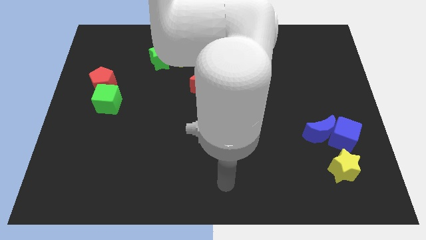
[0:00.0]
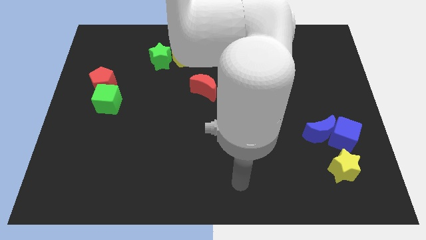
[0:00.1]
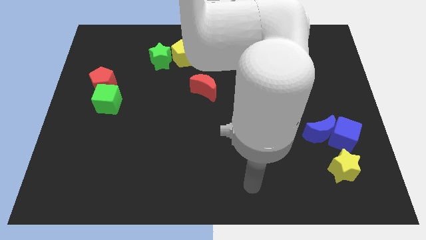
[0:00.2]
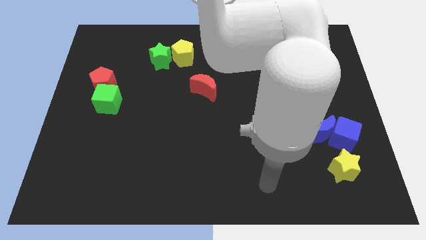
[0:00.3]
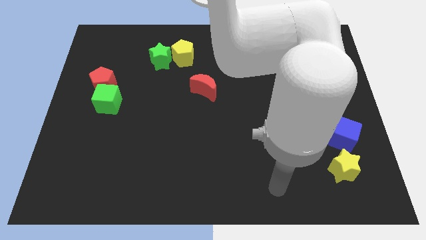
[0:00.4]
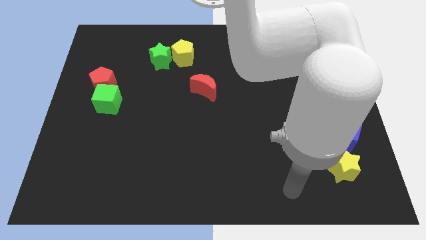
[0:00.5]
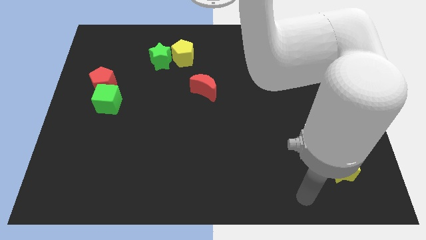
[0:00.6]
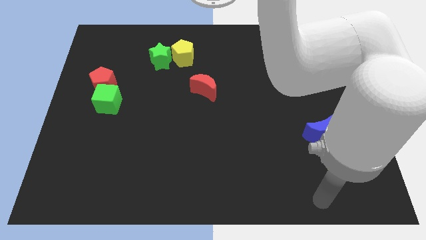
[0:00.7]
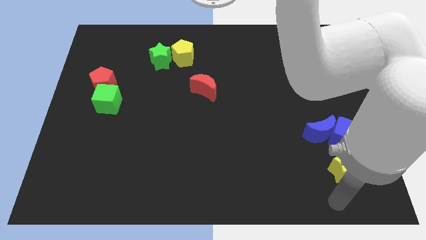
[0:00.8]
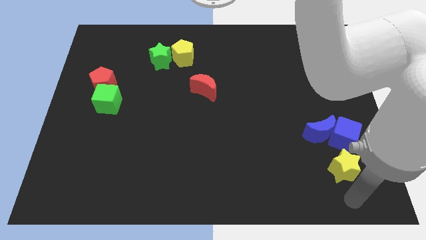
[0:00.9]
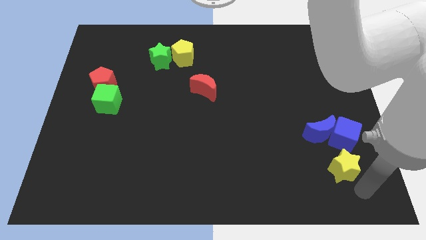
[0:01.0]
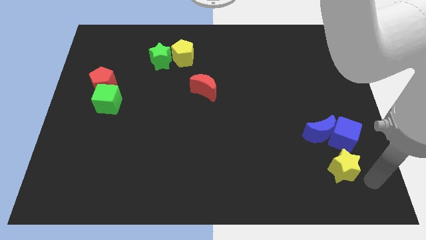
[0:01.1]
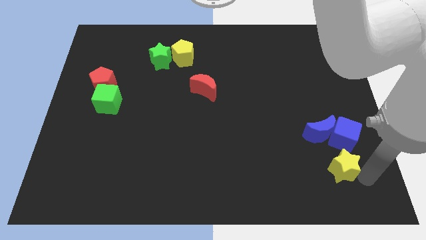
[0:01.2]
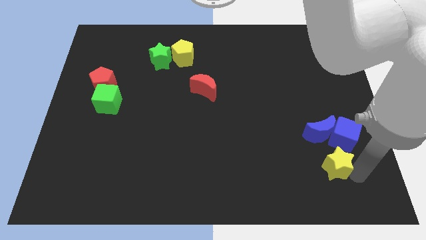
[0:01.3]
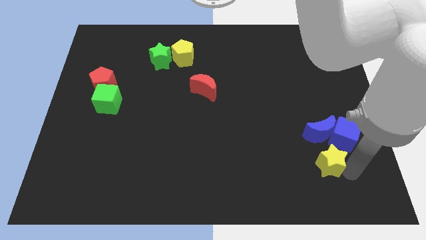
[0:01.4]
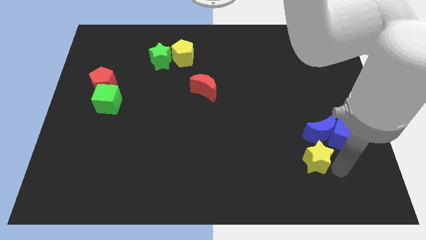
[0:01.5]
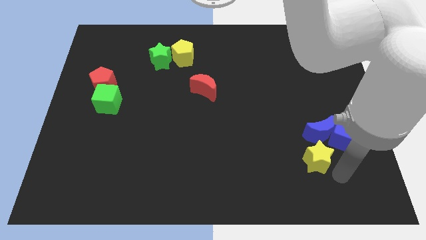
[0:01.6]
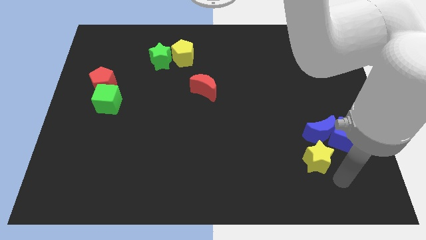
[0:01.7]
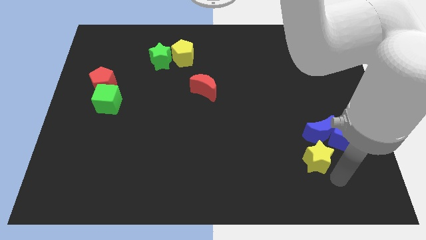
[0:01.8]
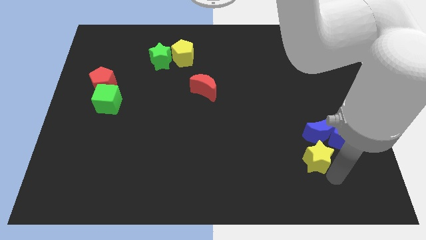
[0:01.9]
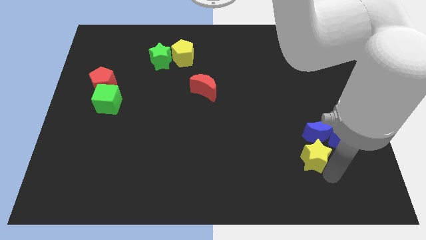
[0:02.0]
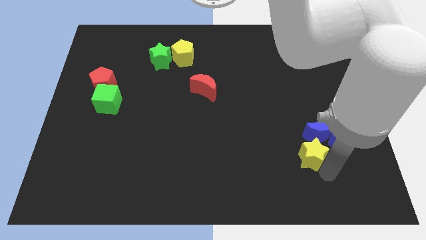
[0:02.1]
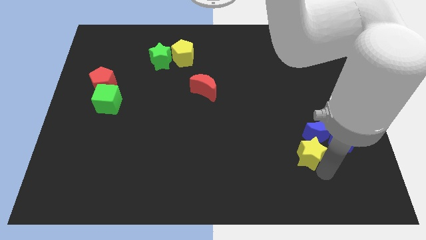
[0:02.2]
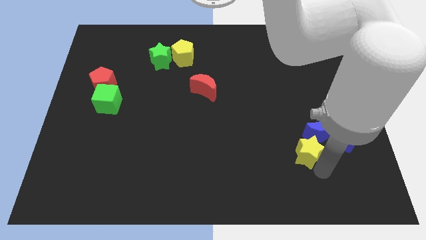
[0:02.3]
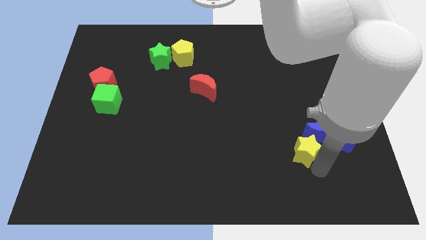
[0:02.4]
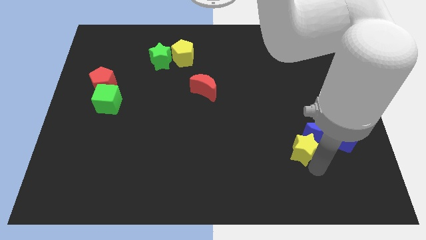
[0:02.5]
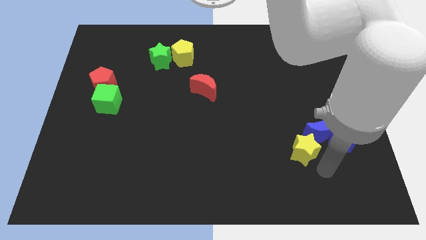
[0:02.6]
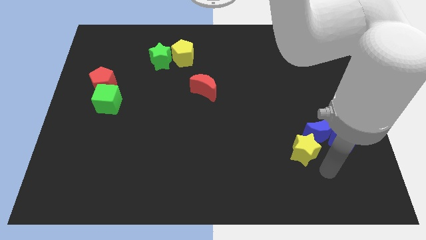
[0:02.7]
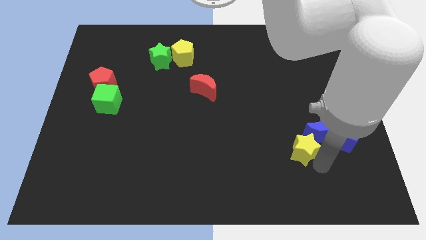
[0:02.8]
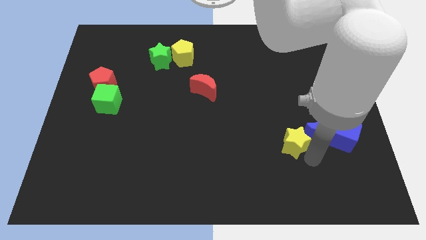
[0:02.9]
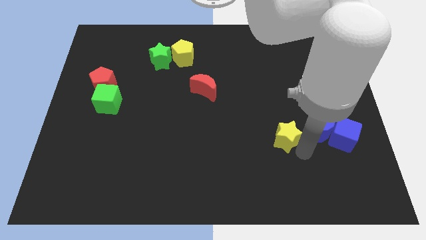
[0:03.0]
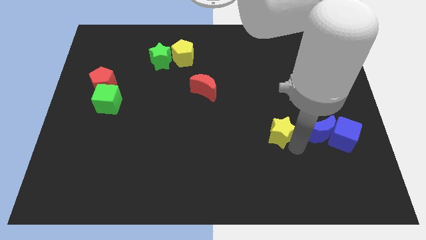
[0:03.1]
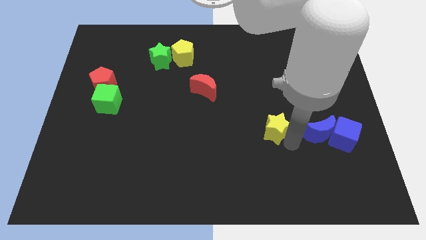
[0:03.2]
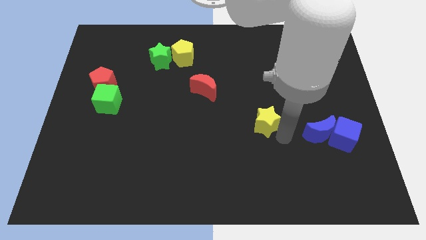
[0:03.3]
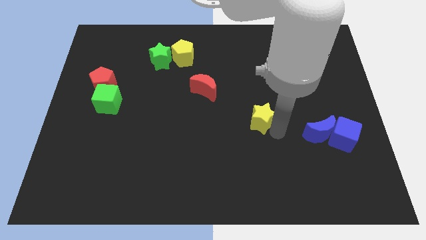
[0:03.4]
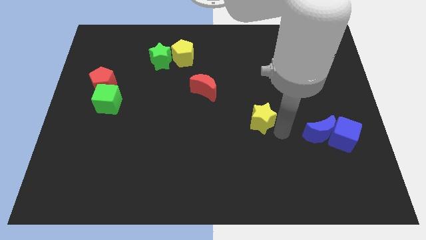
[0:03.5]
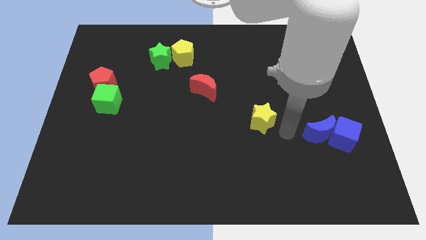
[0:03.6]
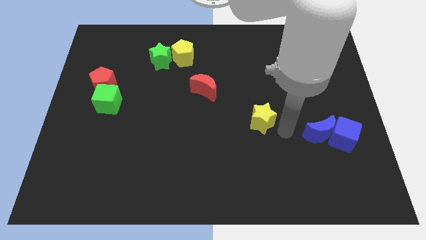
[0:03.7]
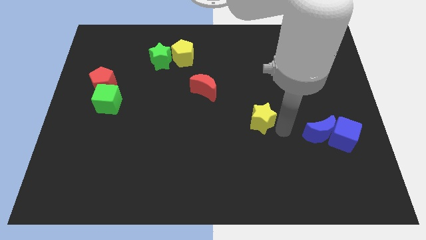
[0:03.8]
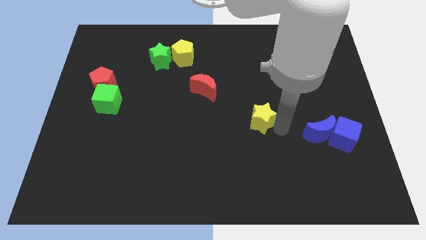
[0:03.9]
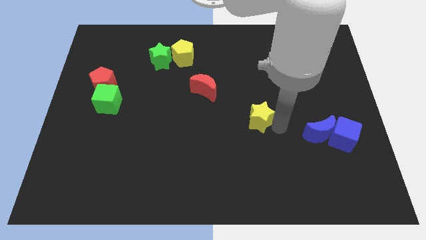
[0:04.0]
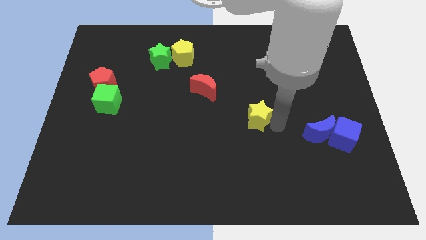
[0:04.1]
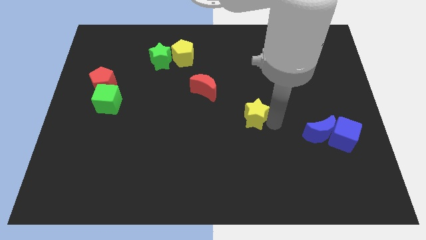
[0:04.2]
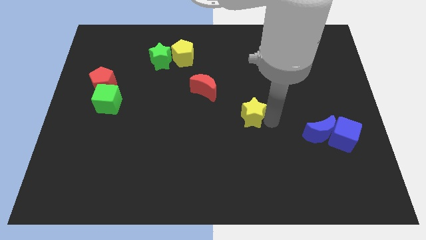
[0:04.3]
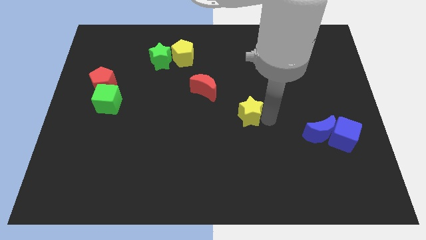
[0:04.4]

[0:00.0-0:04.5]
move the yellow star to the bottom right side of the red moon

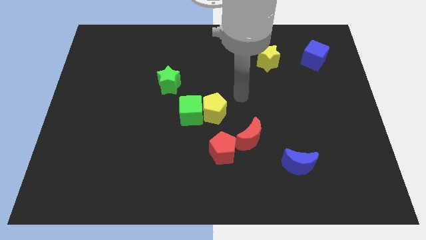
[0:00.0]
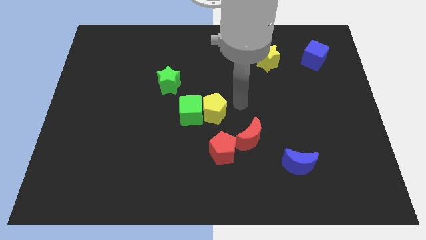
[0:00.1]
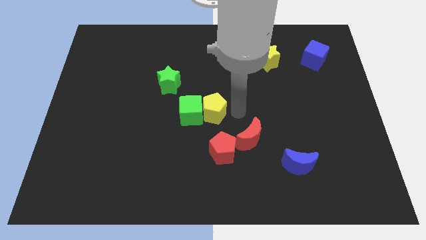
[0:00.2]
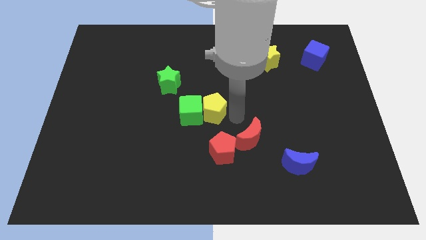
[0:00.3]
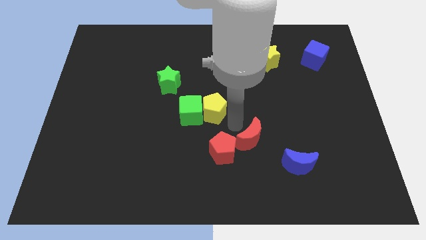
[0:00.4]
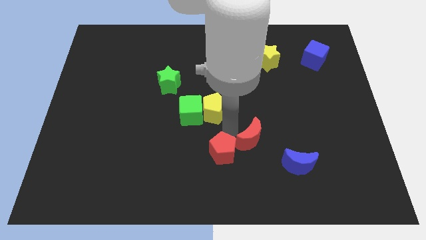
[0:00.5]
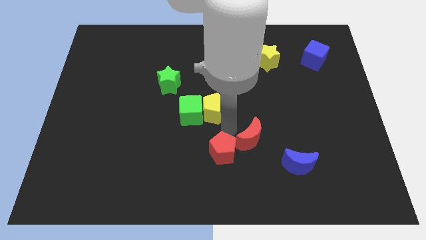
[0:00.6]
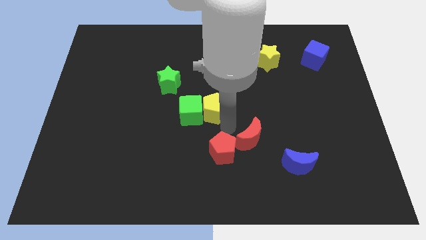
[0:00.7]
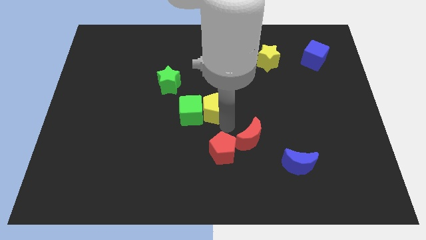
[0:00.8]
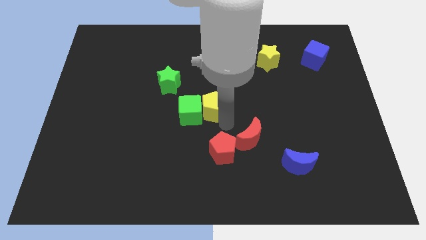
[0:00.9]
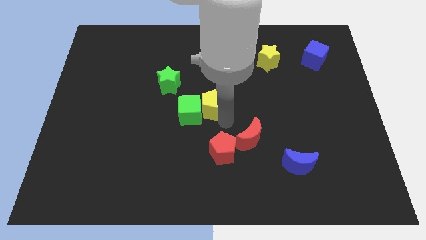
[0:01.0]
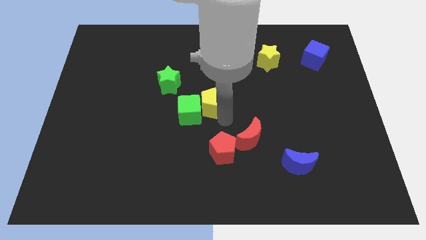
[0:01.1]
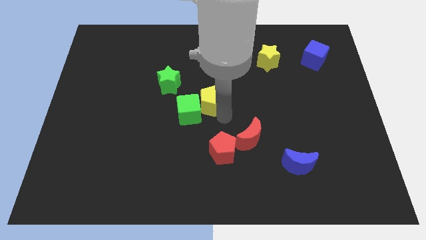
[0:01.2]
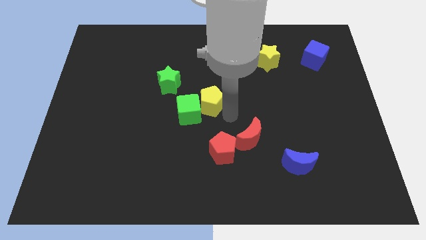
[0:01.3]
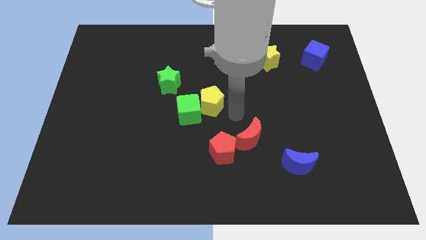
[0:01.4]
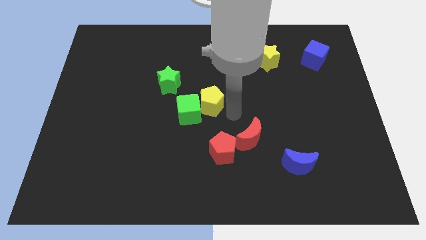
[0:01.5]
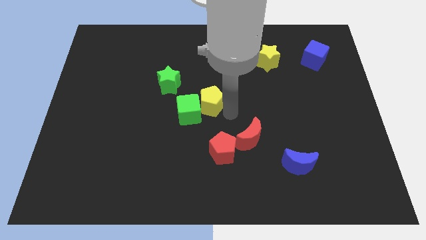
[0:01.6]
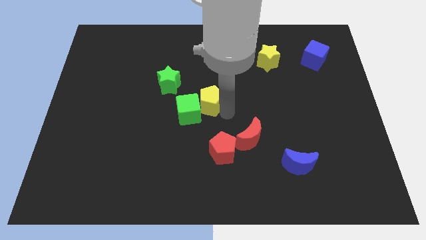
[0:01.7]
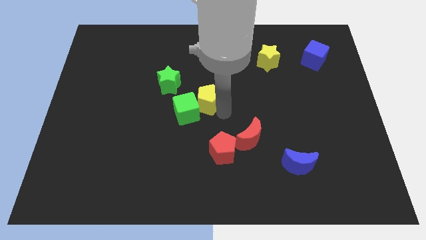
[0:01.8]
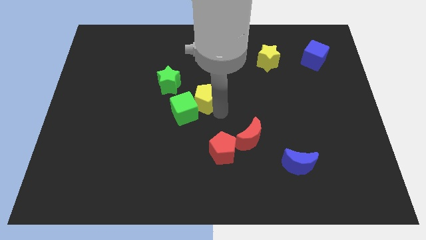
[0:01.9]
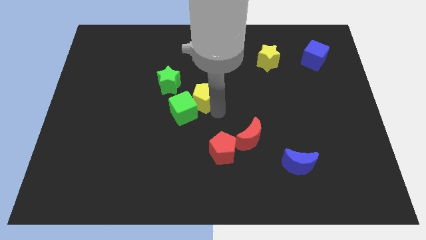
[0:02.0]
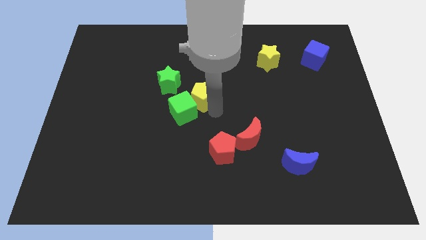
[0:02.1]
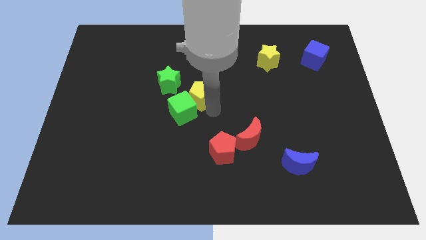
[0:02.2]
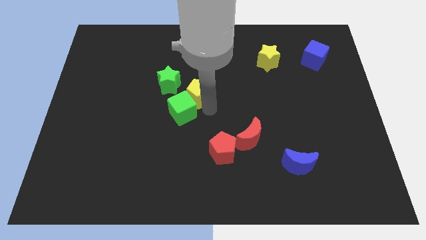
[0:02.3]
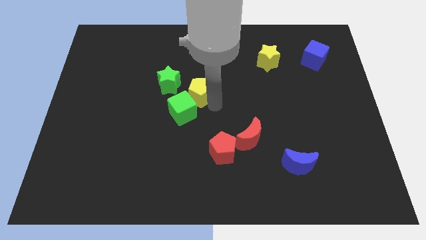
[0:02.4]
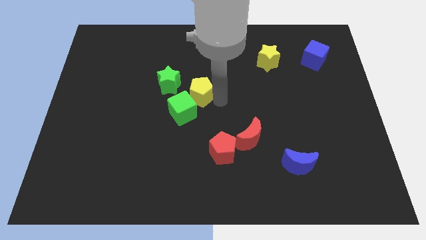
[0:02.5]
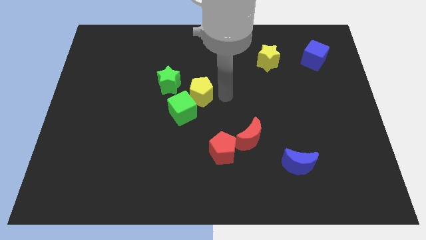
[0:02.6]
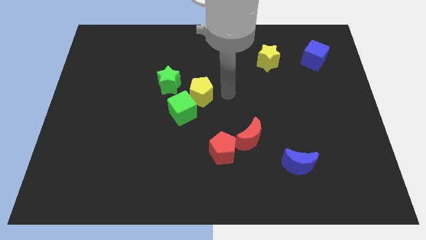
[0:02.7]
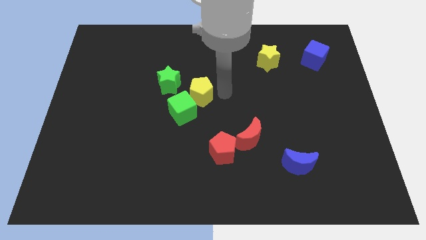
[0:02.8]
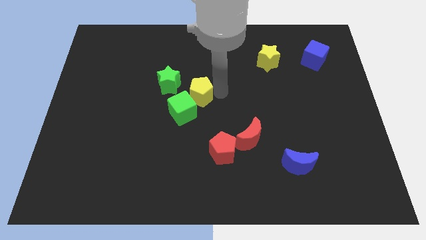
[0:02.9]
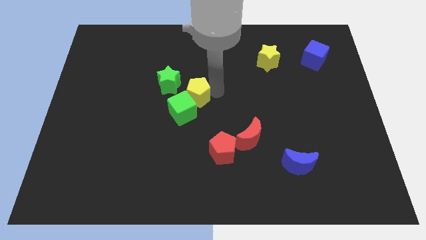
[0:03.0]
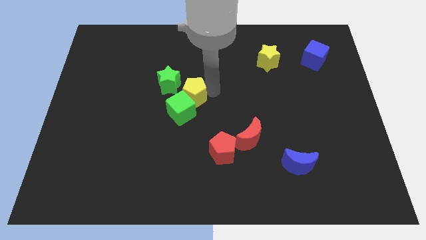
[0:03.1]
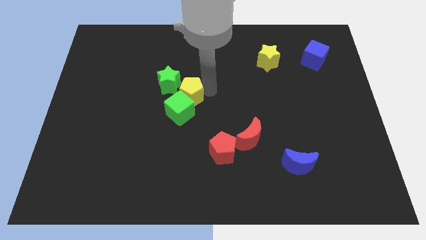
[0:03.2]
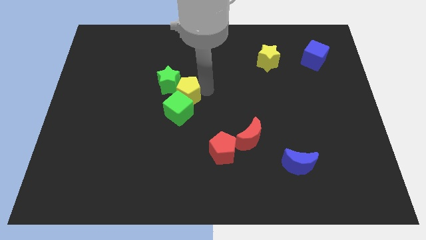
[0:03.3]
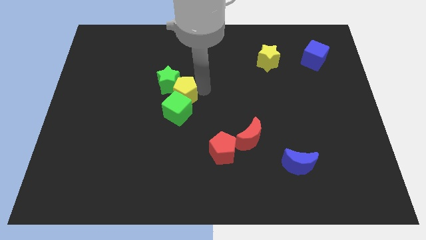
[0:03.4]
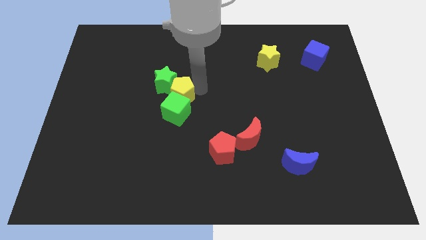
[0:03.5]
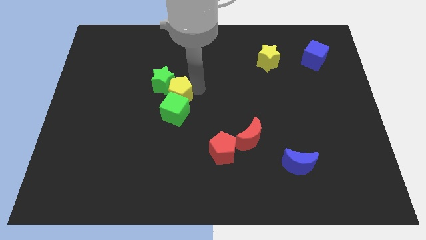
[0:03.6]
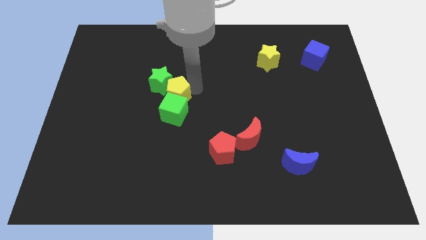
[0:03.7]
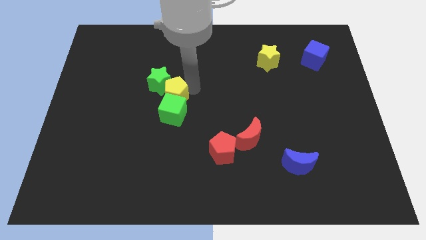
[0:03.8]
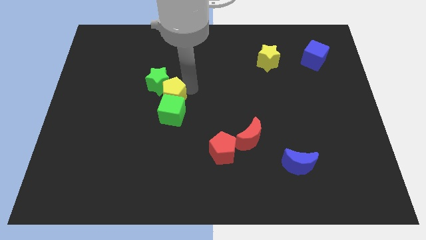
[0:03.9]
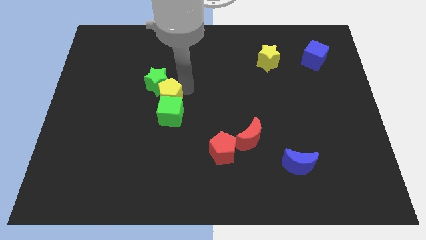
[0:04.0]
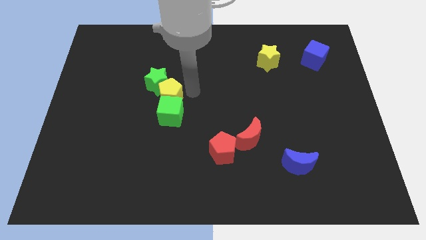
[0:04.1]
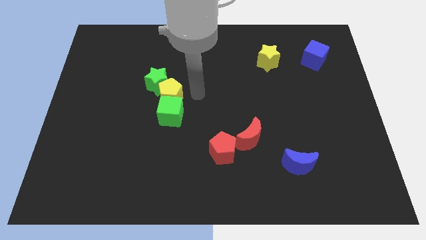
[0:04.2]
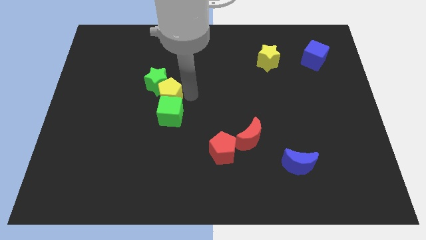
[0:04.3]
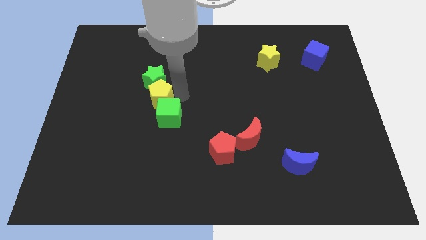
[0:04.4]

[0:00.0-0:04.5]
put the yellow pentagon to the bottom left of the green star
